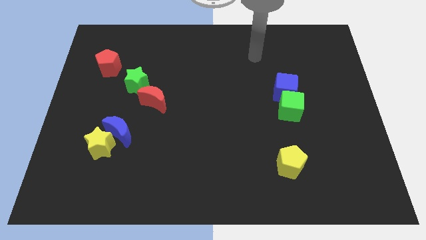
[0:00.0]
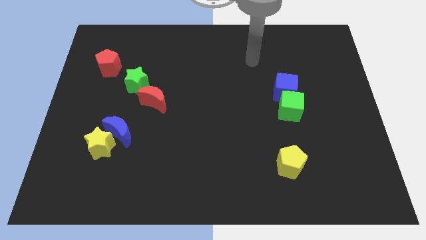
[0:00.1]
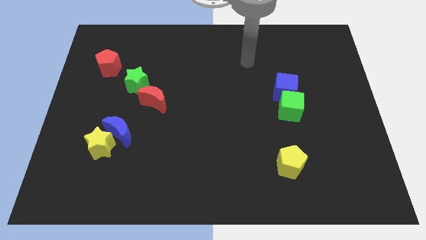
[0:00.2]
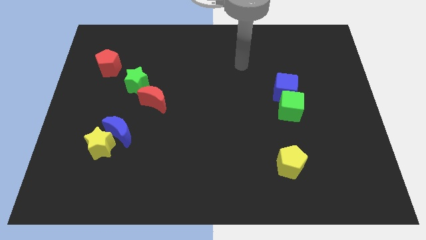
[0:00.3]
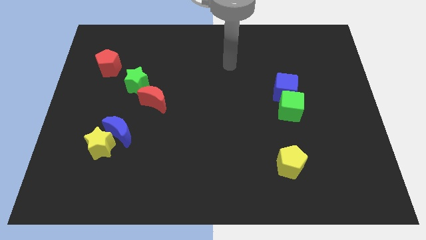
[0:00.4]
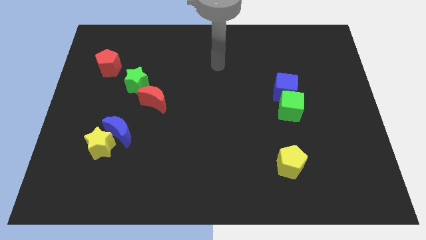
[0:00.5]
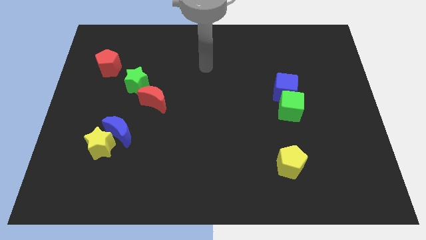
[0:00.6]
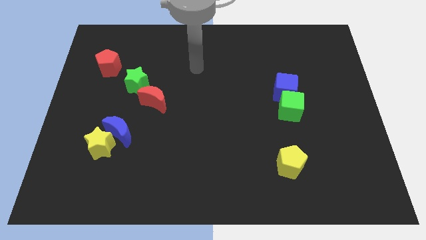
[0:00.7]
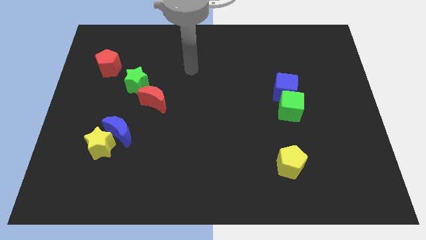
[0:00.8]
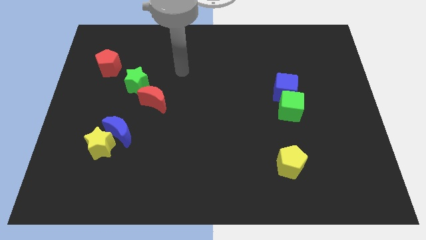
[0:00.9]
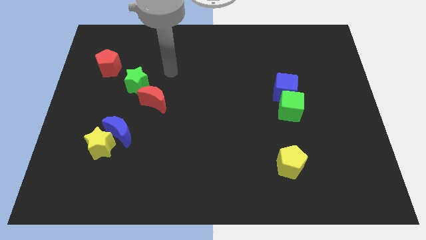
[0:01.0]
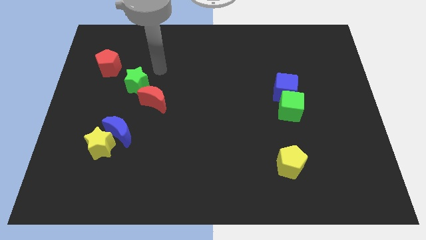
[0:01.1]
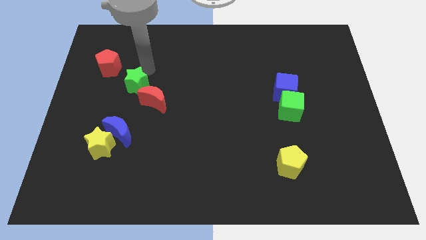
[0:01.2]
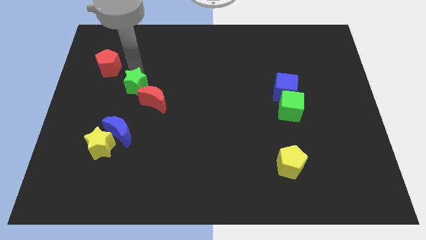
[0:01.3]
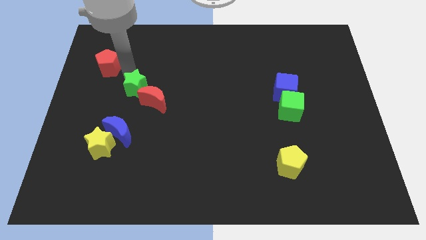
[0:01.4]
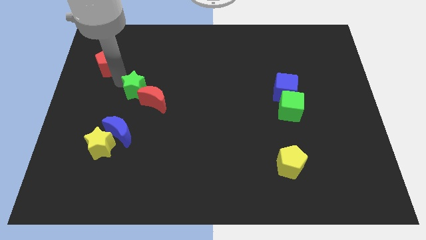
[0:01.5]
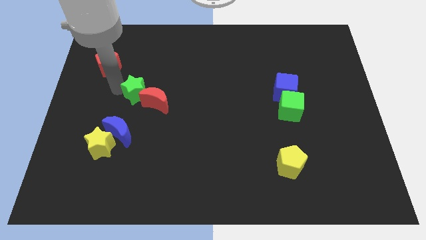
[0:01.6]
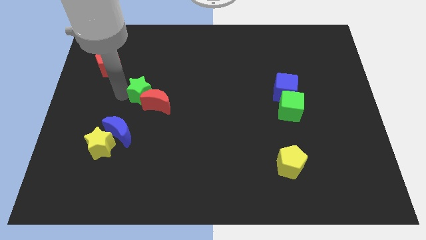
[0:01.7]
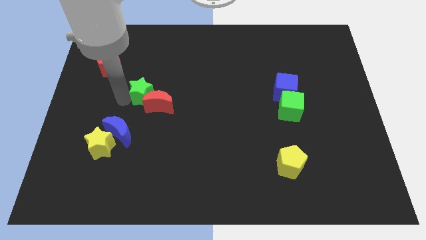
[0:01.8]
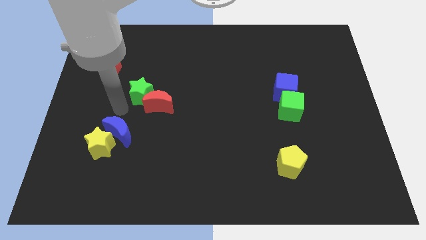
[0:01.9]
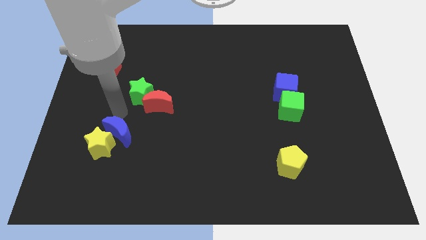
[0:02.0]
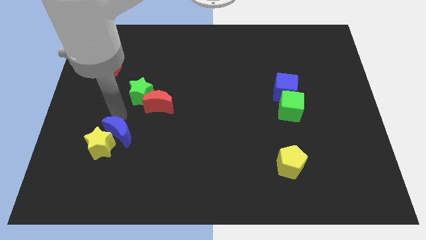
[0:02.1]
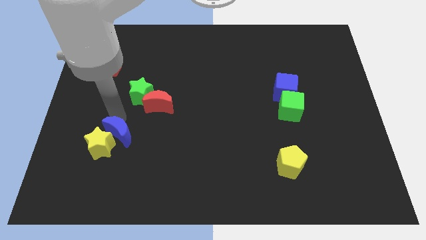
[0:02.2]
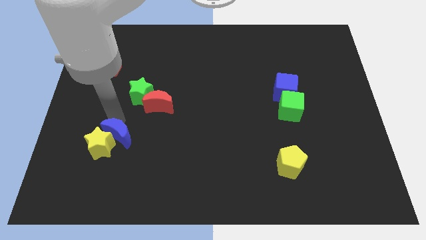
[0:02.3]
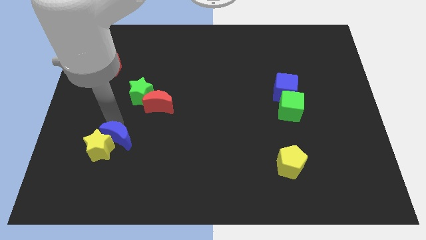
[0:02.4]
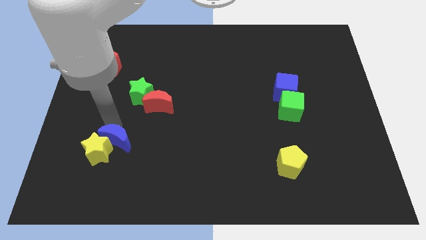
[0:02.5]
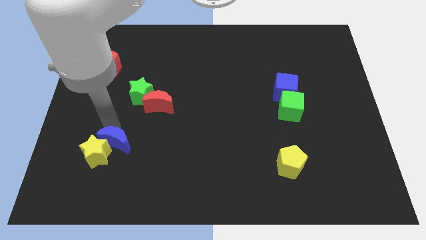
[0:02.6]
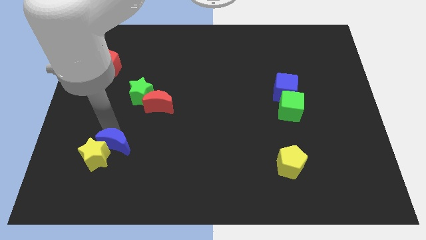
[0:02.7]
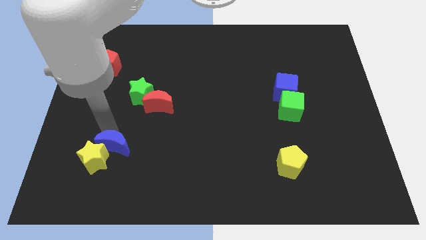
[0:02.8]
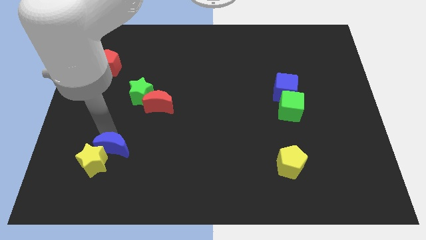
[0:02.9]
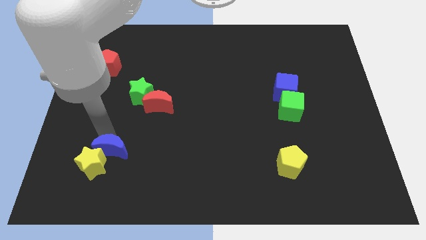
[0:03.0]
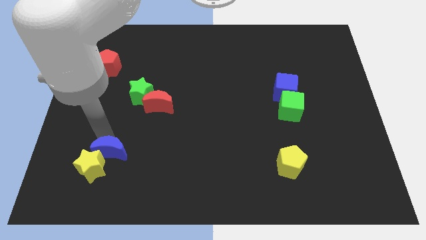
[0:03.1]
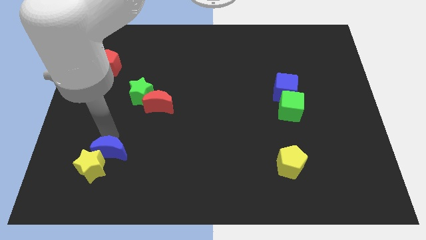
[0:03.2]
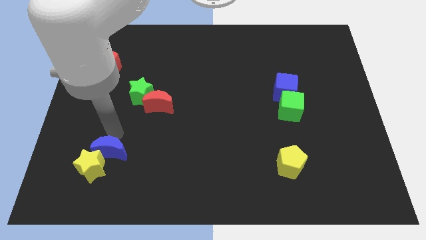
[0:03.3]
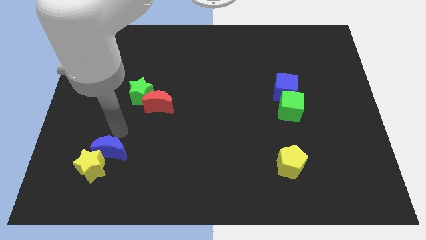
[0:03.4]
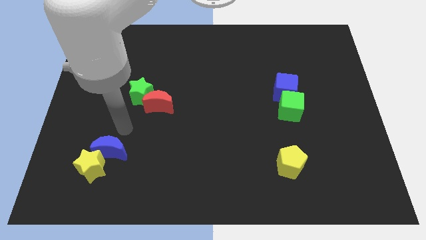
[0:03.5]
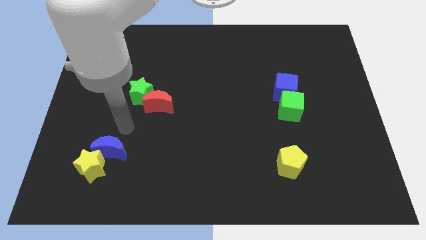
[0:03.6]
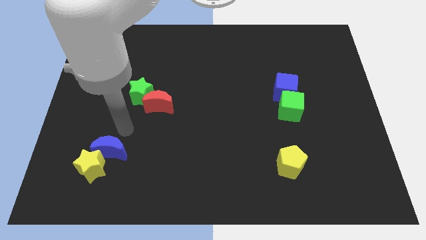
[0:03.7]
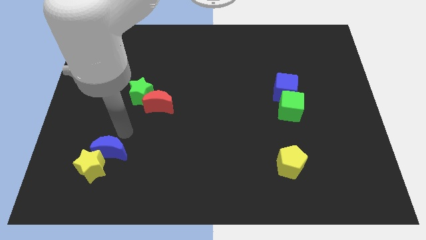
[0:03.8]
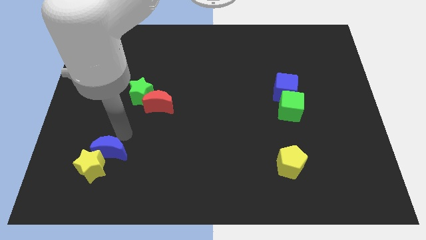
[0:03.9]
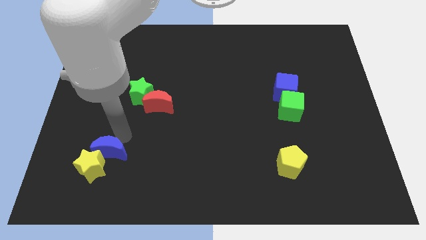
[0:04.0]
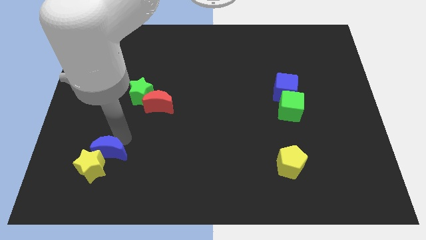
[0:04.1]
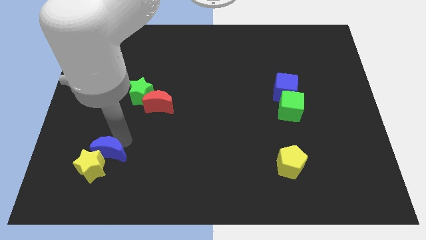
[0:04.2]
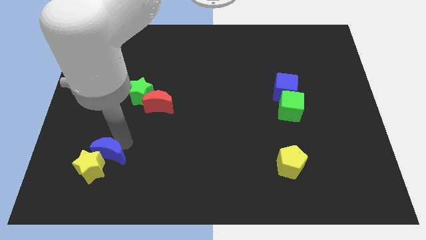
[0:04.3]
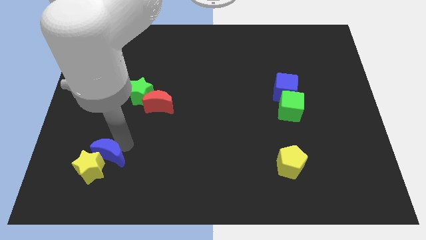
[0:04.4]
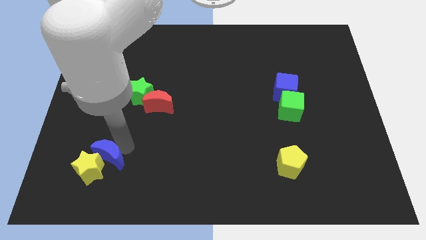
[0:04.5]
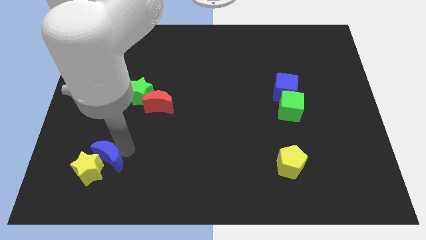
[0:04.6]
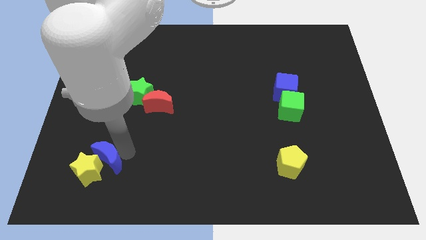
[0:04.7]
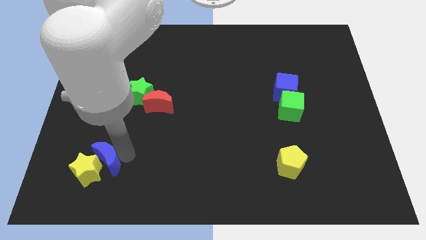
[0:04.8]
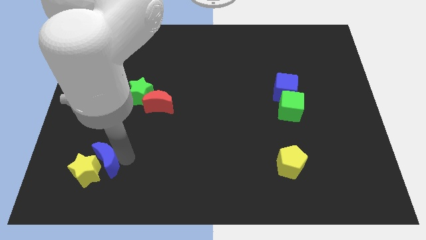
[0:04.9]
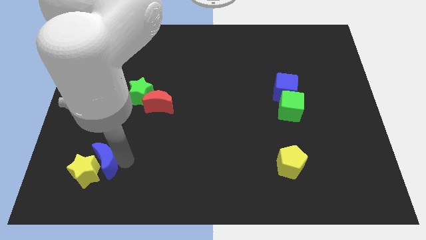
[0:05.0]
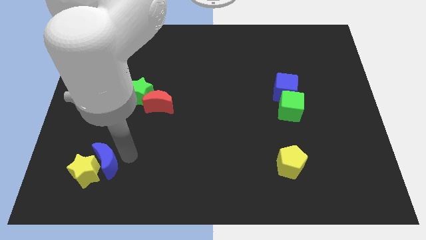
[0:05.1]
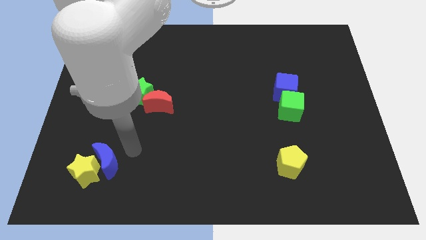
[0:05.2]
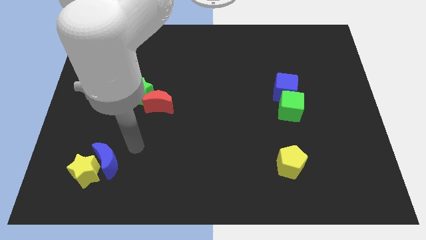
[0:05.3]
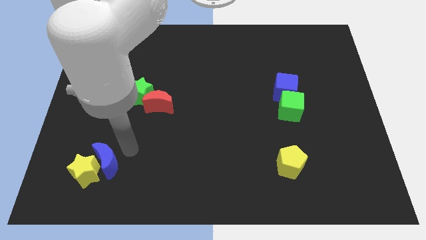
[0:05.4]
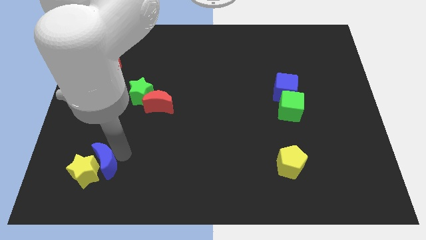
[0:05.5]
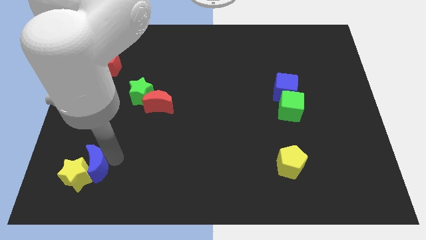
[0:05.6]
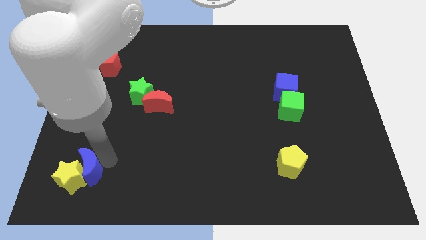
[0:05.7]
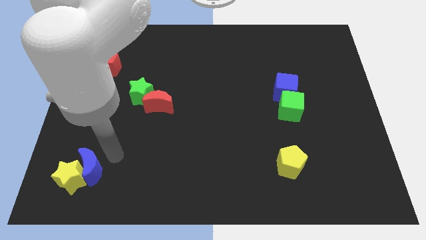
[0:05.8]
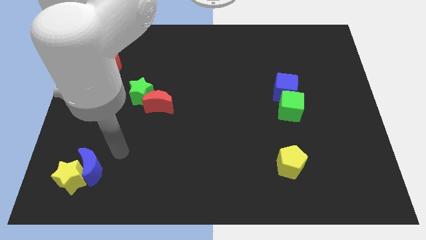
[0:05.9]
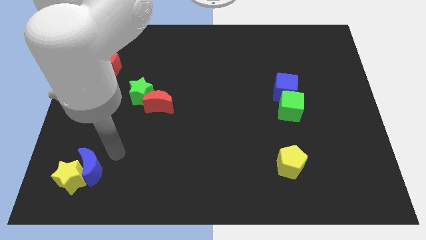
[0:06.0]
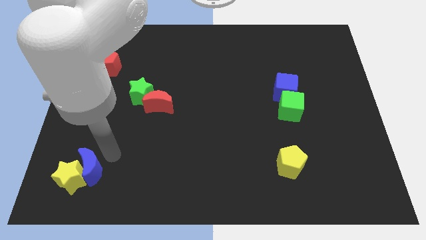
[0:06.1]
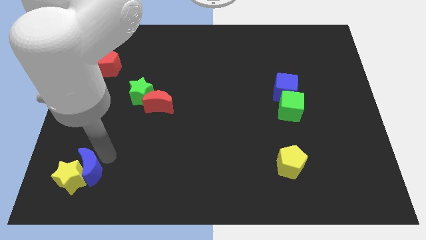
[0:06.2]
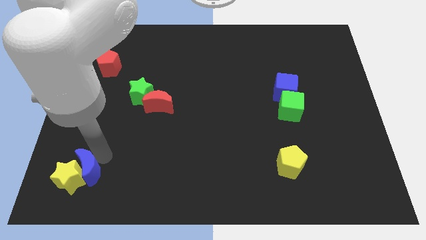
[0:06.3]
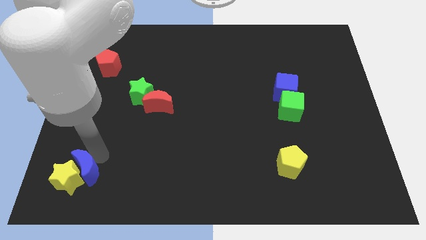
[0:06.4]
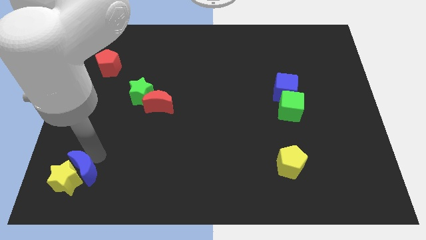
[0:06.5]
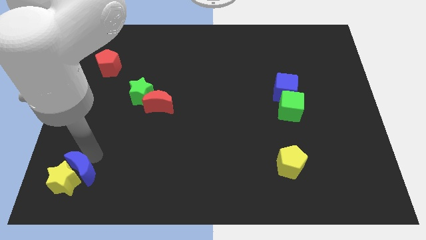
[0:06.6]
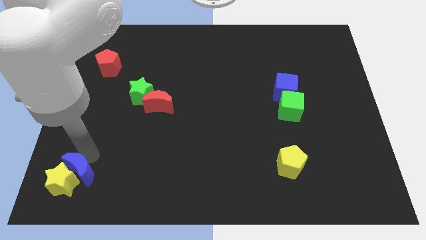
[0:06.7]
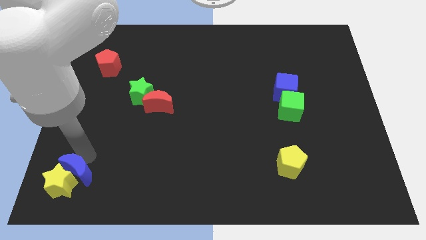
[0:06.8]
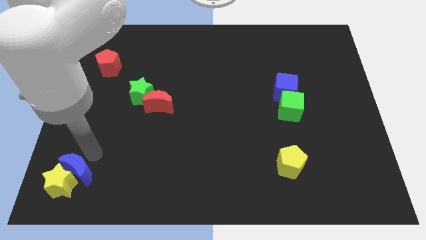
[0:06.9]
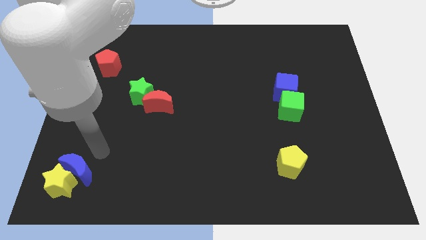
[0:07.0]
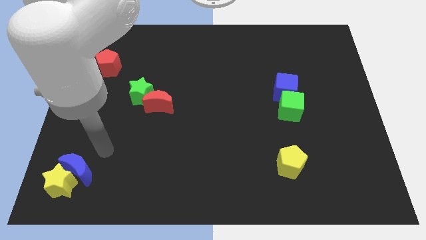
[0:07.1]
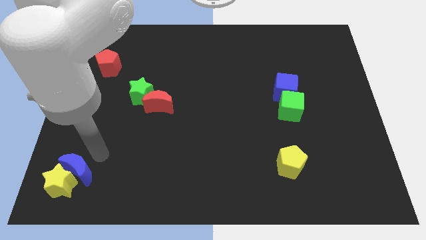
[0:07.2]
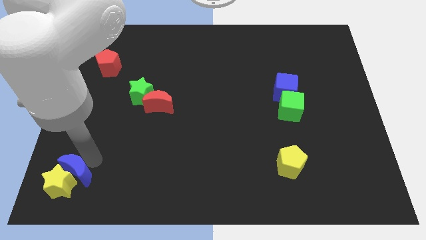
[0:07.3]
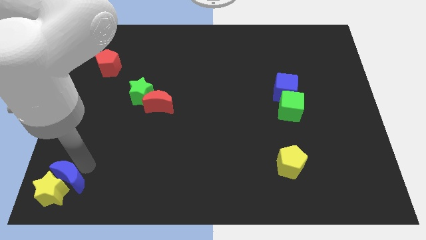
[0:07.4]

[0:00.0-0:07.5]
slide the blue moon to the bottom left corner
